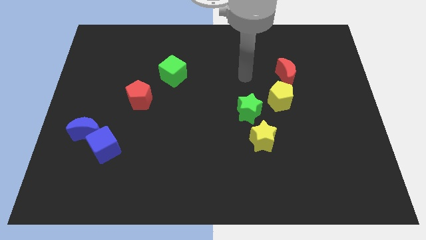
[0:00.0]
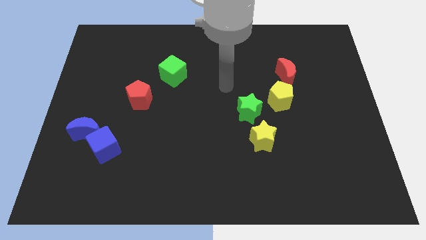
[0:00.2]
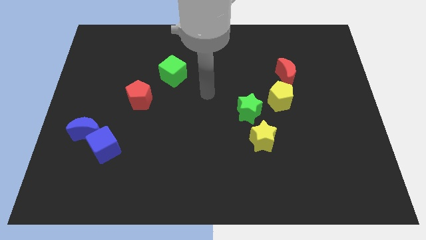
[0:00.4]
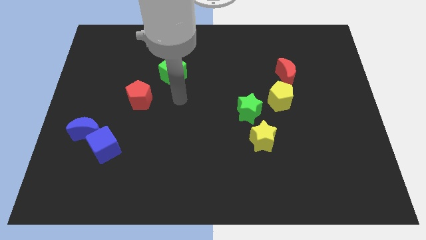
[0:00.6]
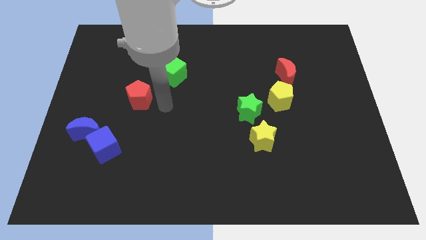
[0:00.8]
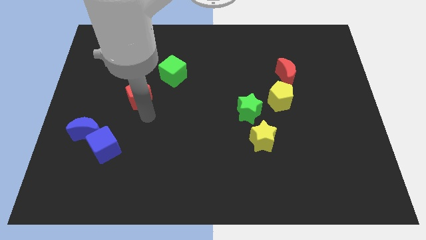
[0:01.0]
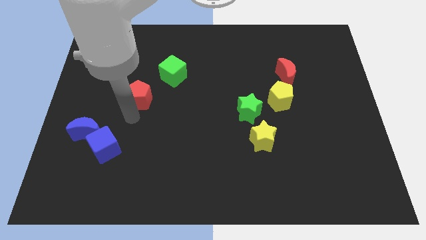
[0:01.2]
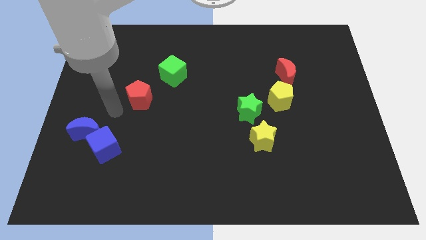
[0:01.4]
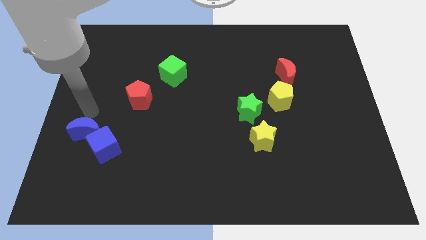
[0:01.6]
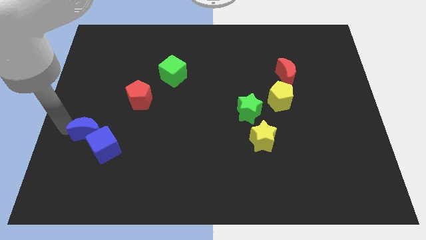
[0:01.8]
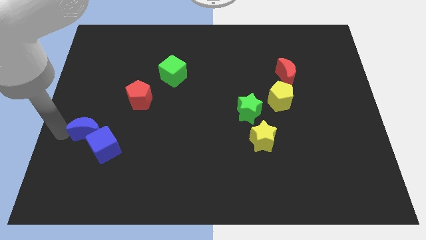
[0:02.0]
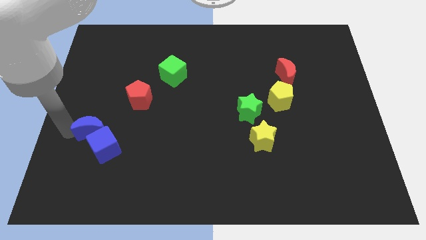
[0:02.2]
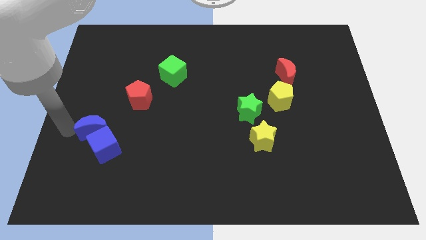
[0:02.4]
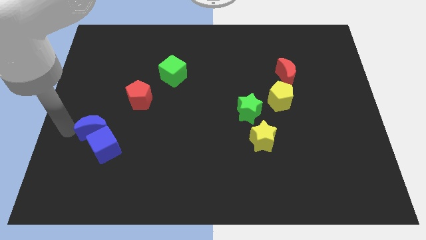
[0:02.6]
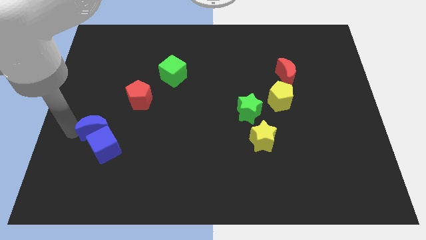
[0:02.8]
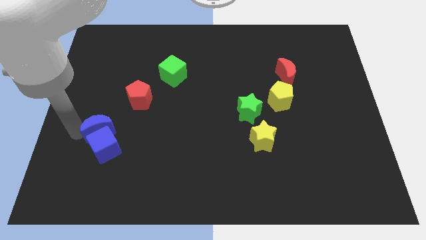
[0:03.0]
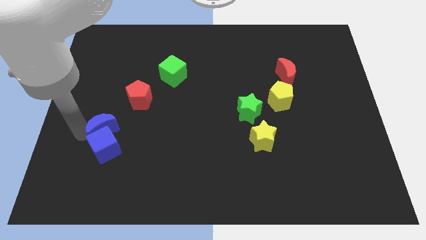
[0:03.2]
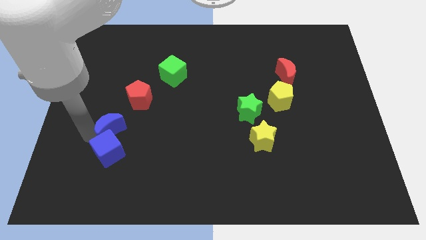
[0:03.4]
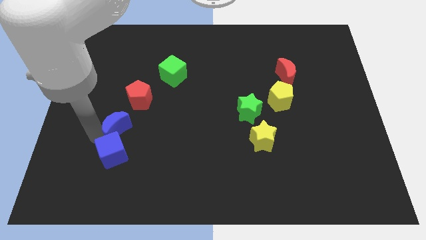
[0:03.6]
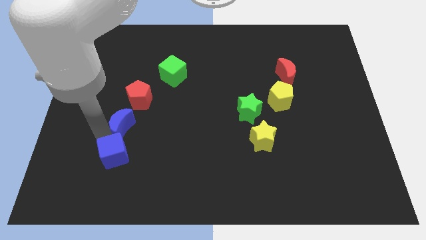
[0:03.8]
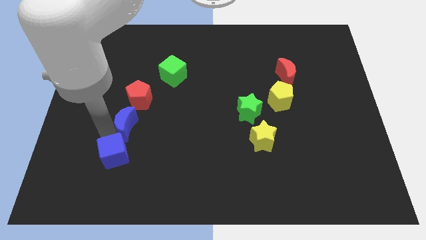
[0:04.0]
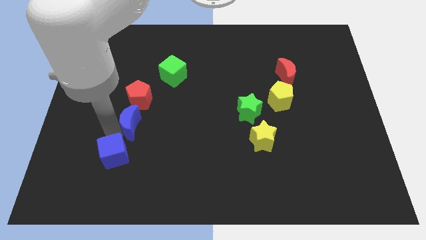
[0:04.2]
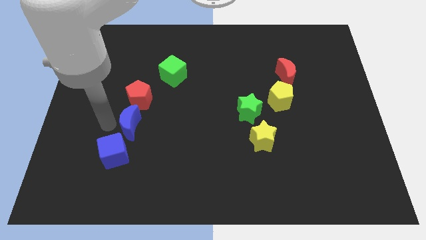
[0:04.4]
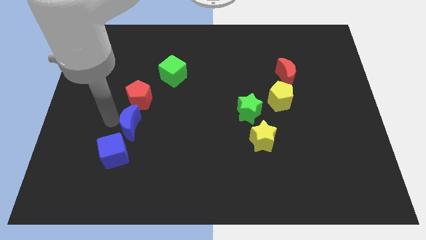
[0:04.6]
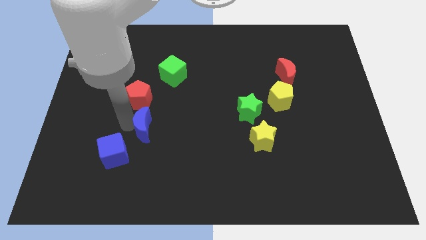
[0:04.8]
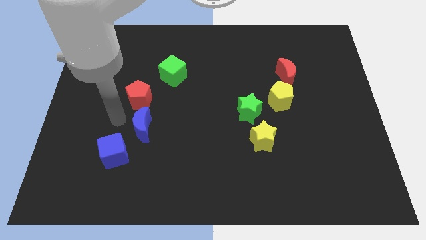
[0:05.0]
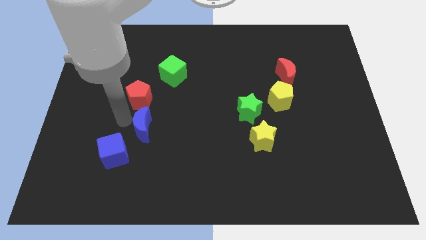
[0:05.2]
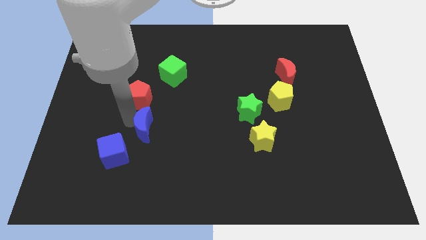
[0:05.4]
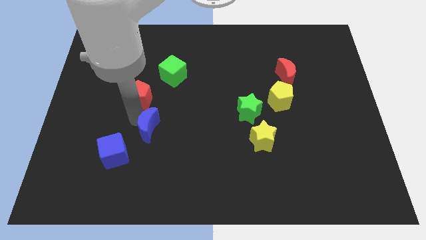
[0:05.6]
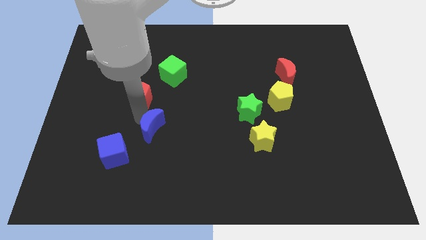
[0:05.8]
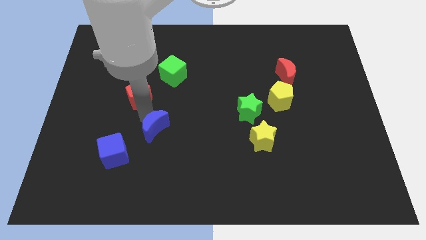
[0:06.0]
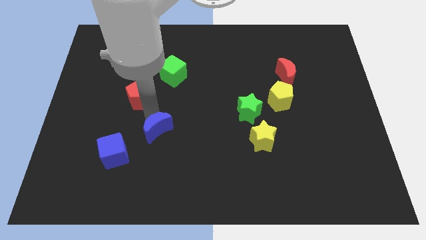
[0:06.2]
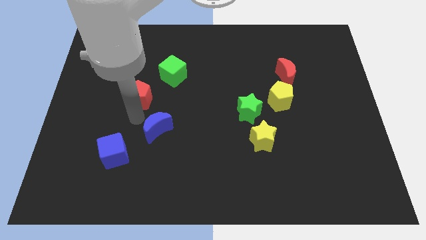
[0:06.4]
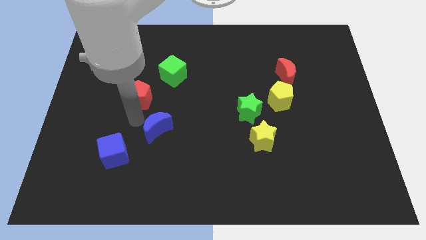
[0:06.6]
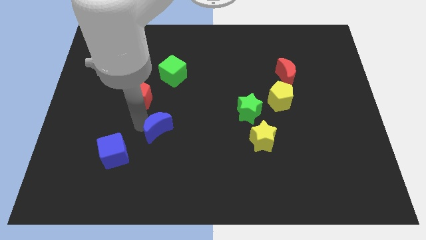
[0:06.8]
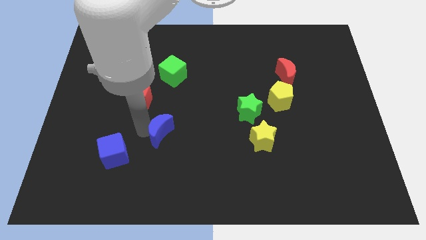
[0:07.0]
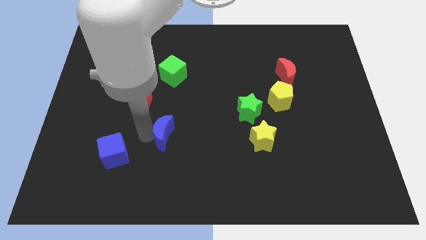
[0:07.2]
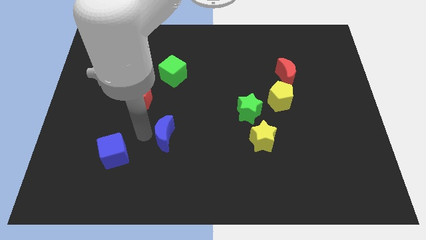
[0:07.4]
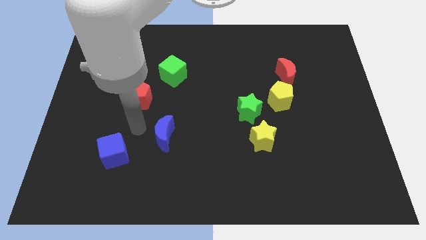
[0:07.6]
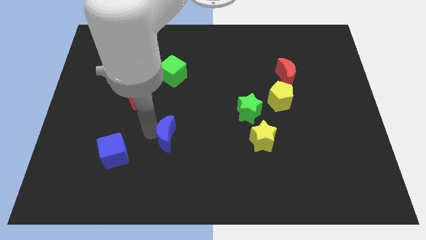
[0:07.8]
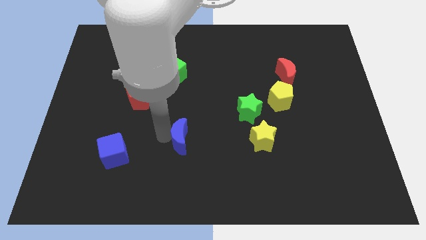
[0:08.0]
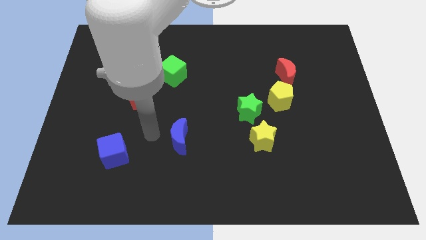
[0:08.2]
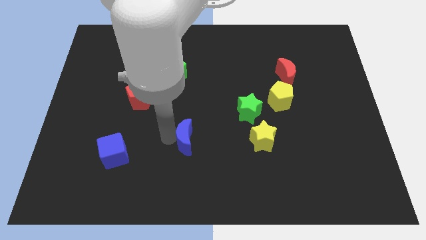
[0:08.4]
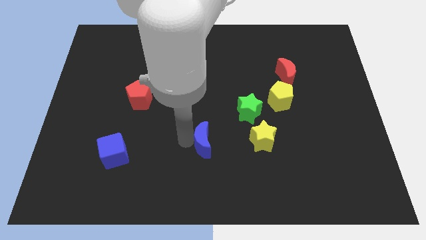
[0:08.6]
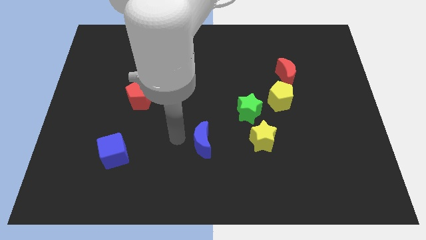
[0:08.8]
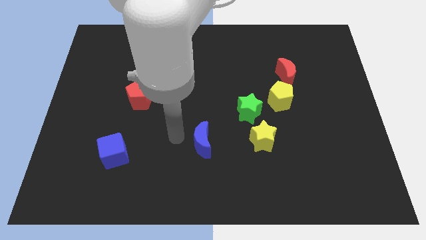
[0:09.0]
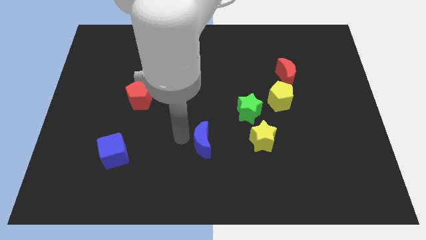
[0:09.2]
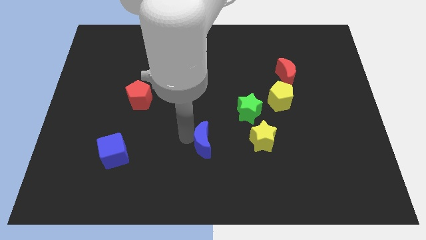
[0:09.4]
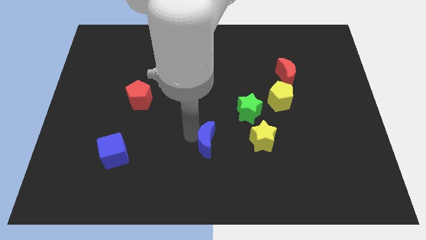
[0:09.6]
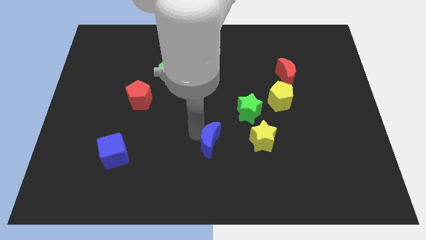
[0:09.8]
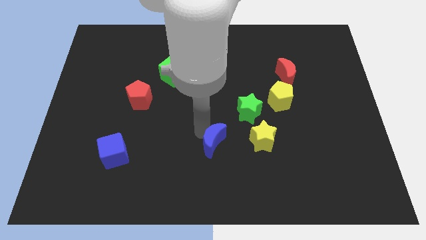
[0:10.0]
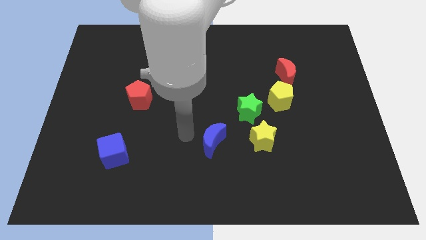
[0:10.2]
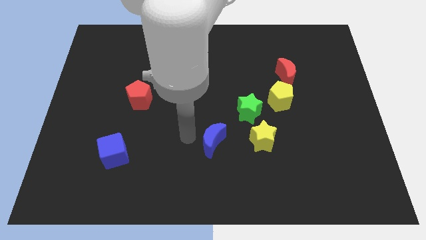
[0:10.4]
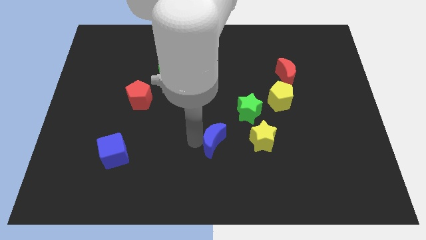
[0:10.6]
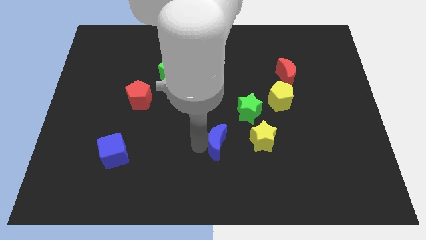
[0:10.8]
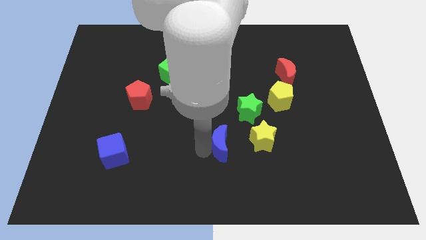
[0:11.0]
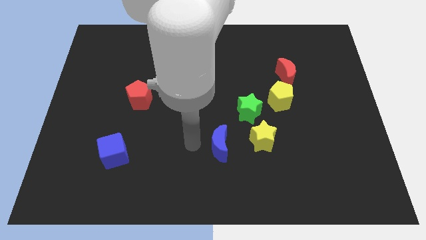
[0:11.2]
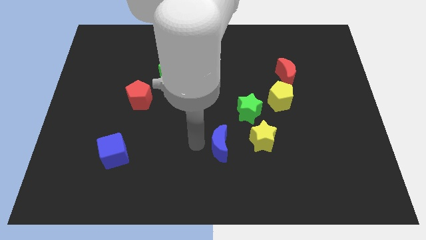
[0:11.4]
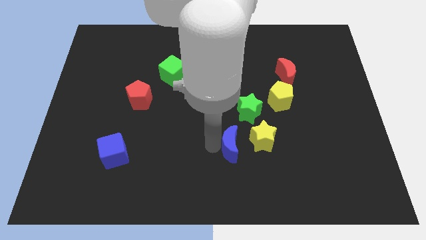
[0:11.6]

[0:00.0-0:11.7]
put the blue moon below the green star
